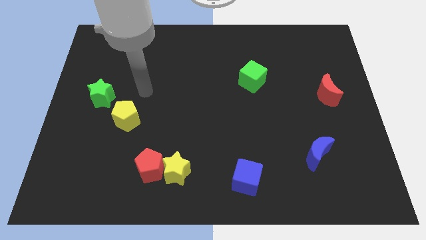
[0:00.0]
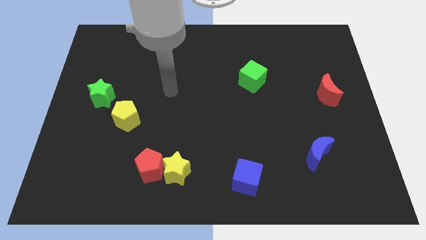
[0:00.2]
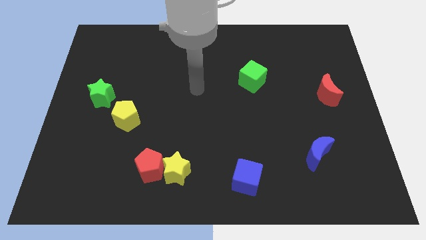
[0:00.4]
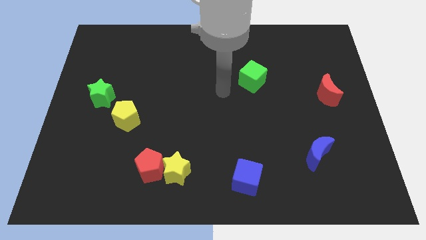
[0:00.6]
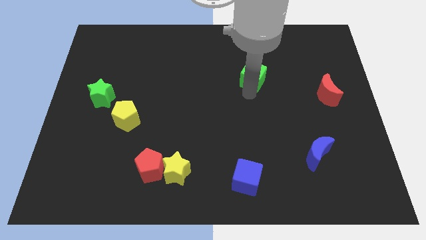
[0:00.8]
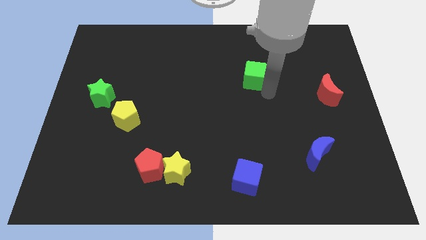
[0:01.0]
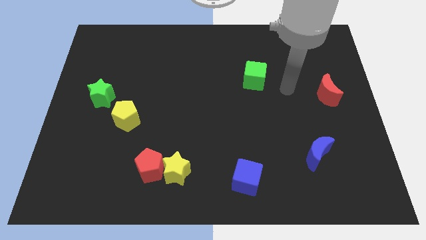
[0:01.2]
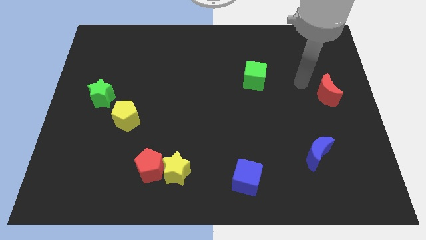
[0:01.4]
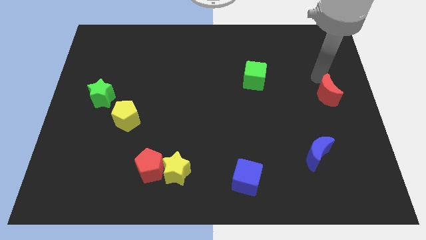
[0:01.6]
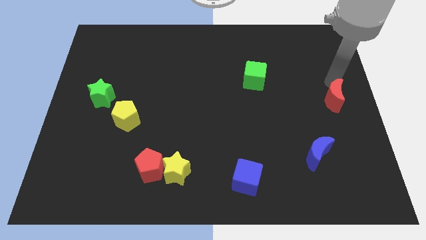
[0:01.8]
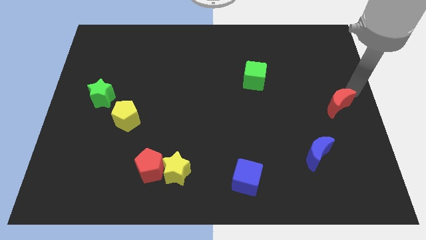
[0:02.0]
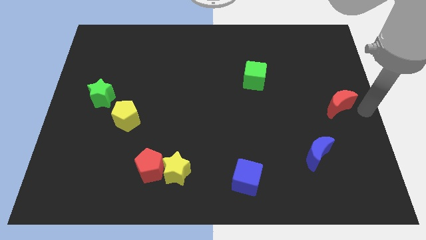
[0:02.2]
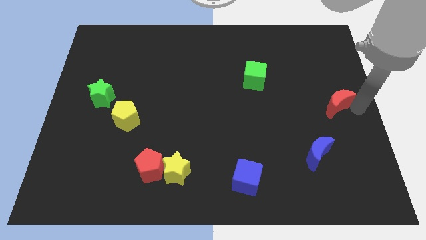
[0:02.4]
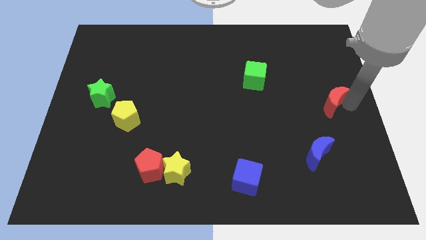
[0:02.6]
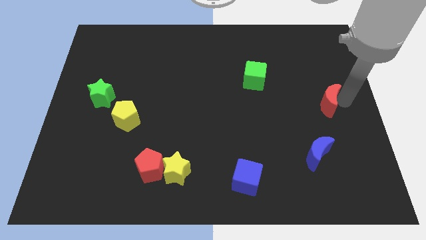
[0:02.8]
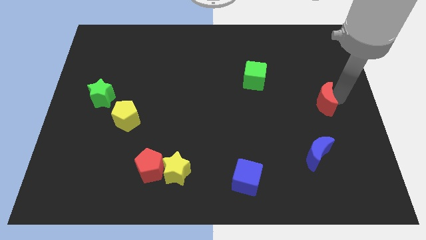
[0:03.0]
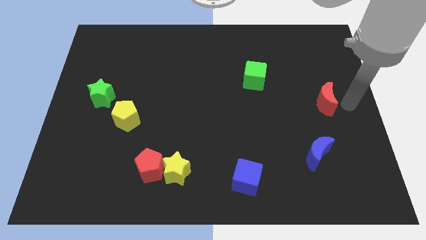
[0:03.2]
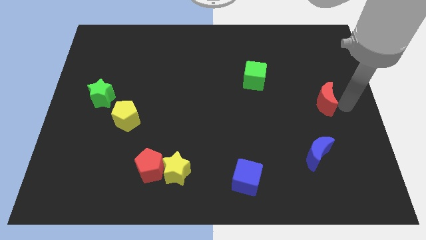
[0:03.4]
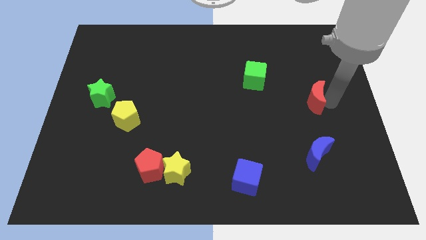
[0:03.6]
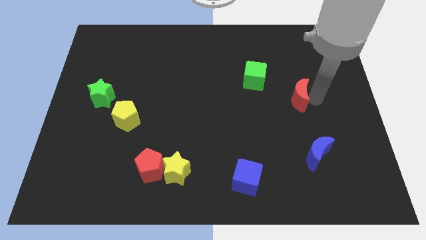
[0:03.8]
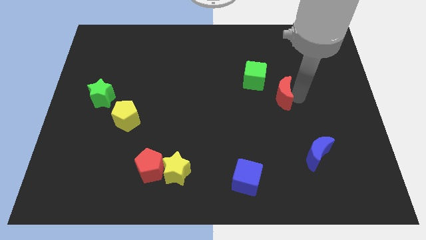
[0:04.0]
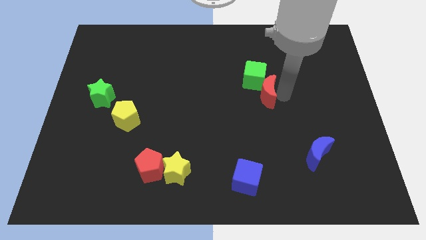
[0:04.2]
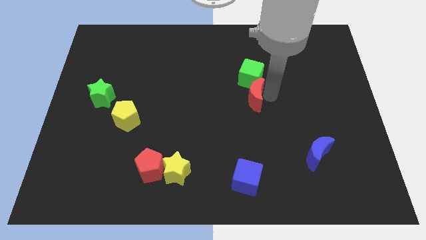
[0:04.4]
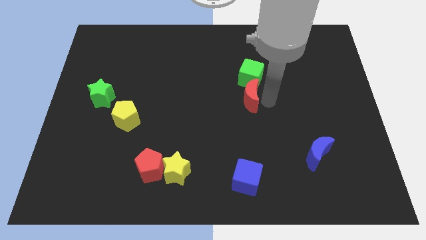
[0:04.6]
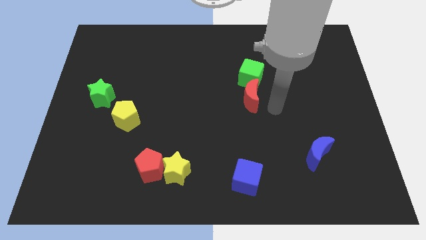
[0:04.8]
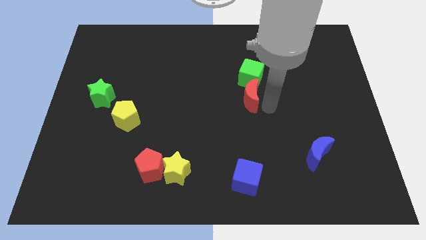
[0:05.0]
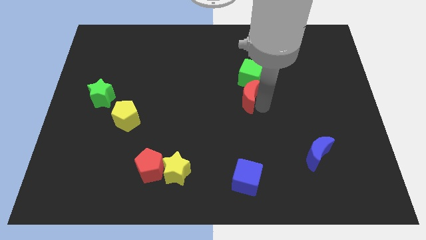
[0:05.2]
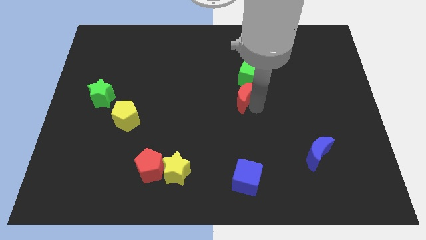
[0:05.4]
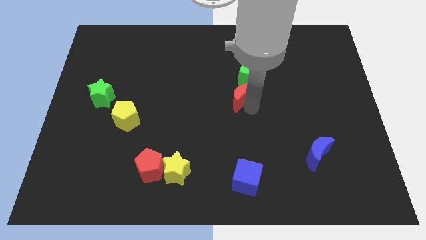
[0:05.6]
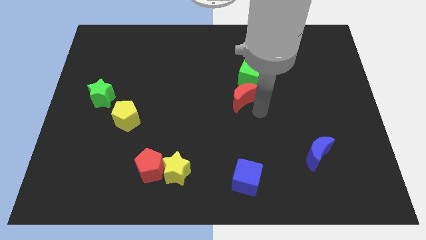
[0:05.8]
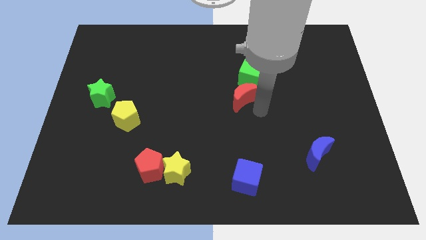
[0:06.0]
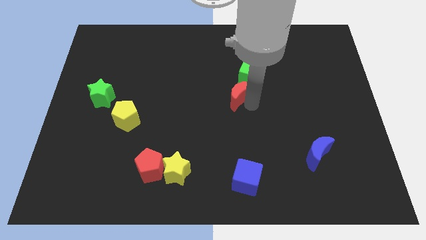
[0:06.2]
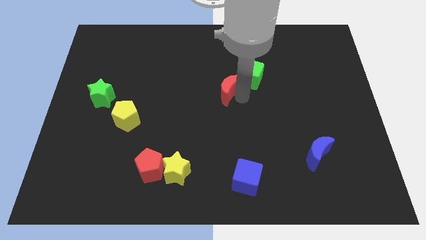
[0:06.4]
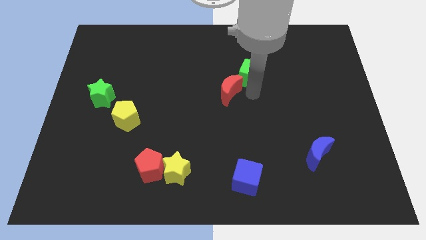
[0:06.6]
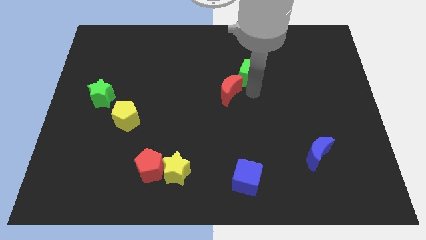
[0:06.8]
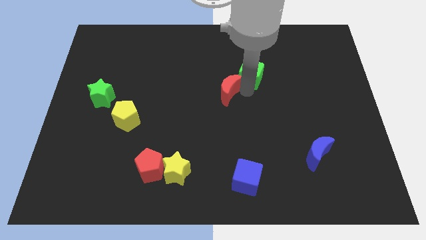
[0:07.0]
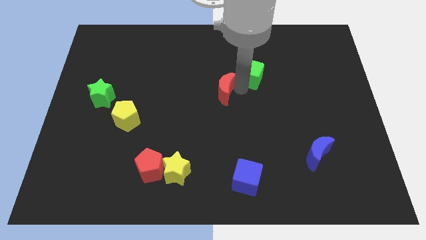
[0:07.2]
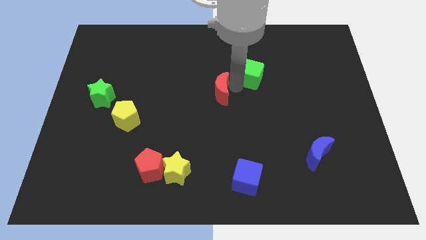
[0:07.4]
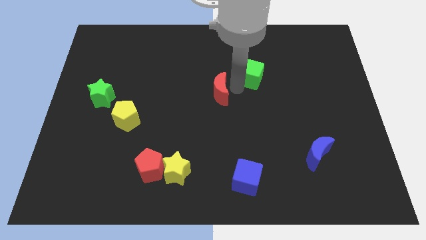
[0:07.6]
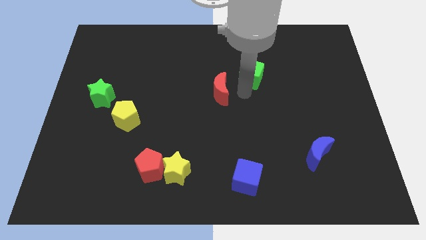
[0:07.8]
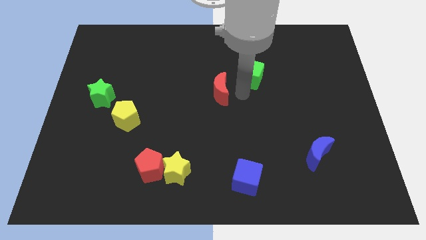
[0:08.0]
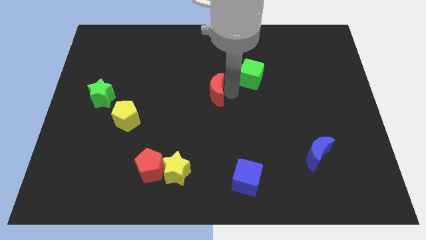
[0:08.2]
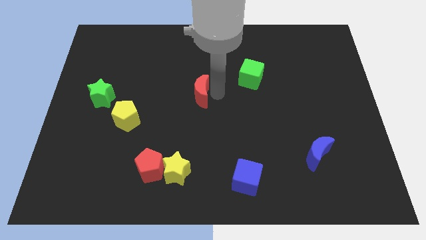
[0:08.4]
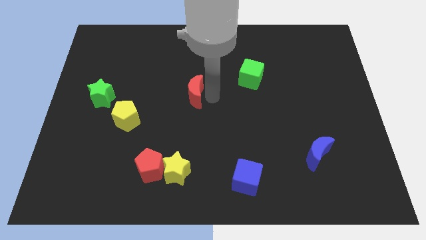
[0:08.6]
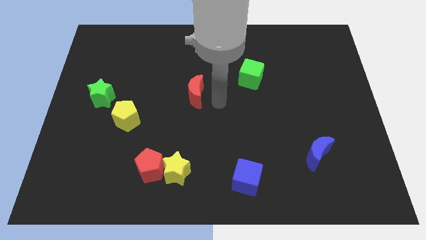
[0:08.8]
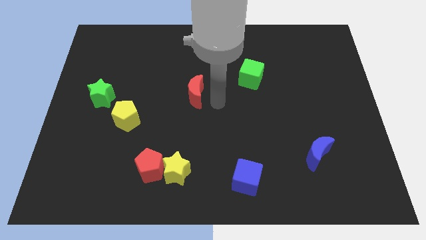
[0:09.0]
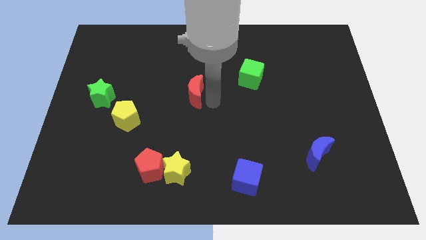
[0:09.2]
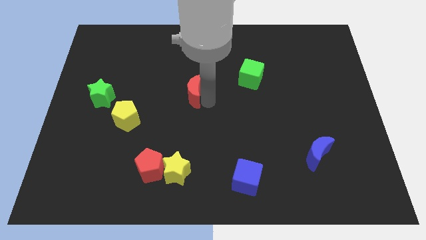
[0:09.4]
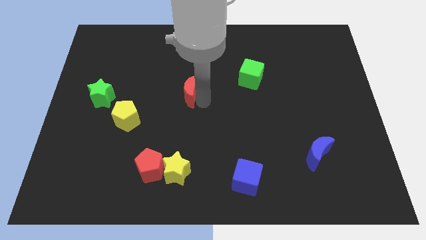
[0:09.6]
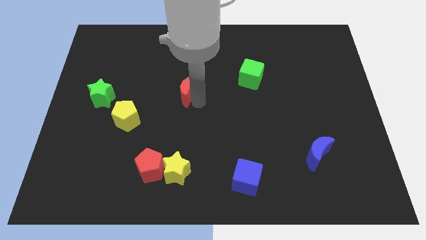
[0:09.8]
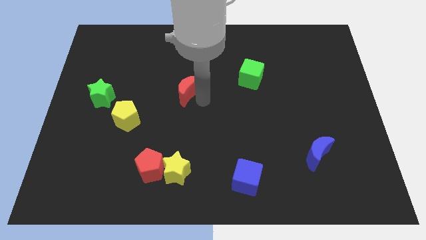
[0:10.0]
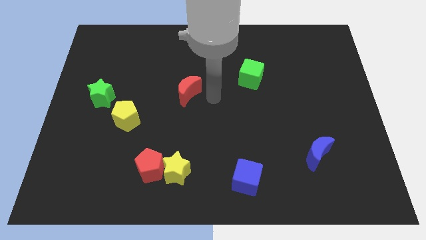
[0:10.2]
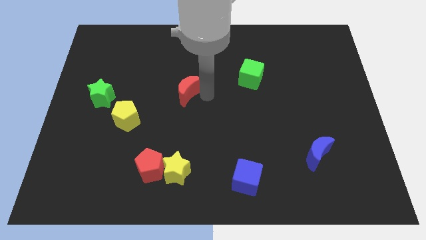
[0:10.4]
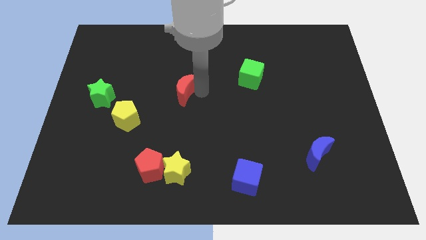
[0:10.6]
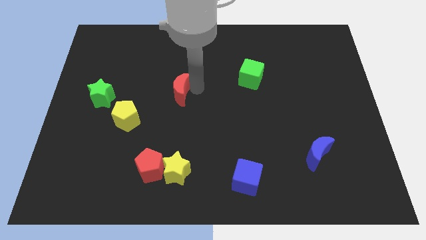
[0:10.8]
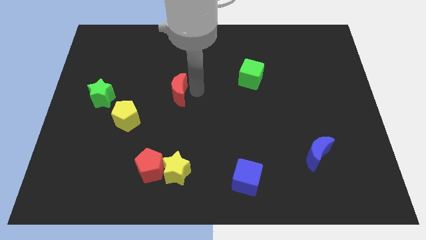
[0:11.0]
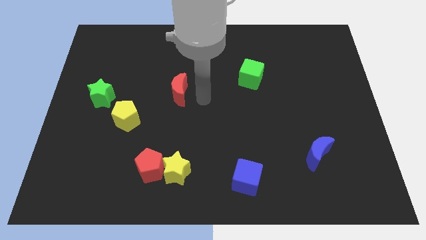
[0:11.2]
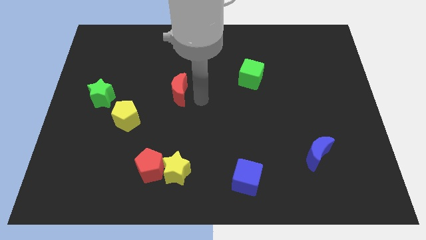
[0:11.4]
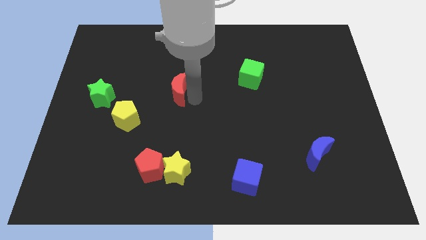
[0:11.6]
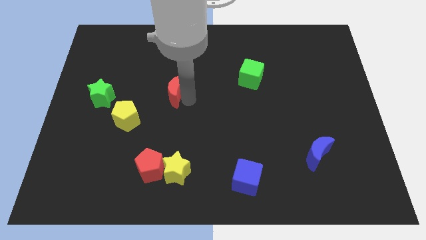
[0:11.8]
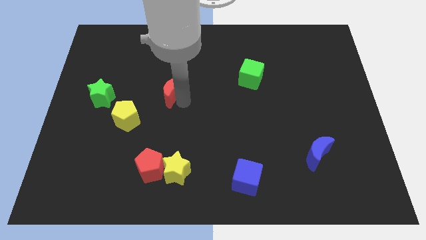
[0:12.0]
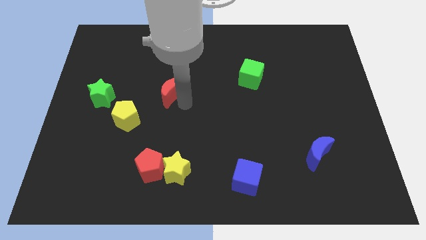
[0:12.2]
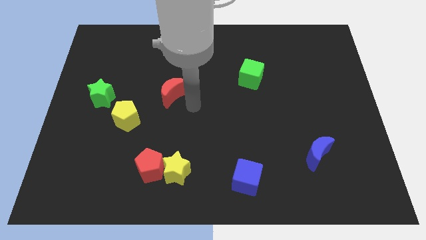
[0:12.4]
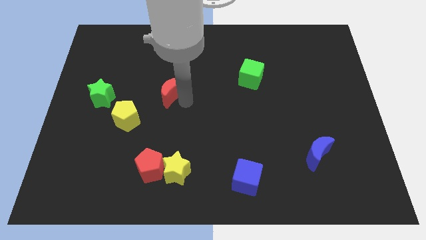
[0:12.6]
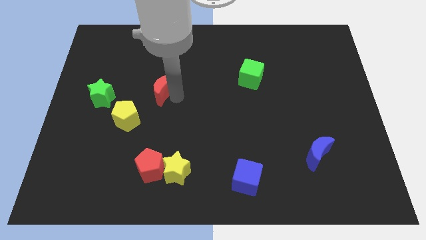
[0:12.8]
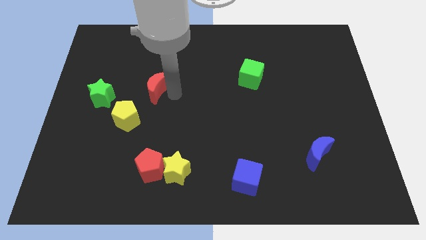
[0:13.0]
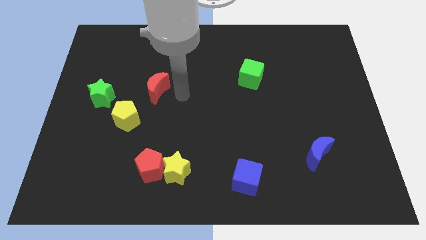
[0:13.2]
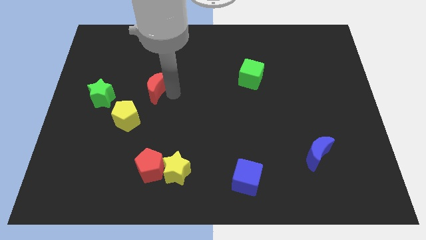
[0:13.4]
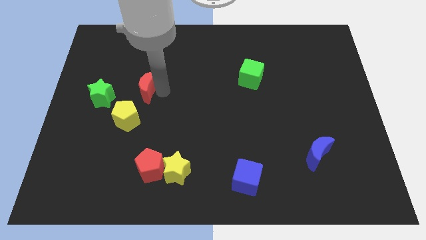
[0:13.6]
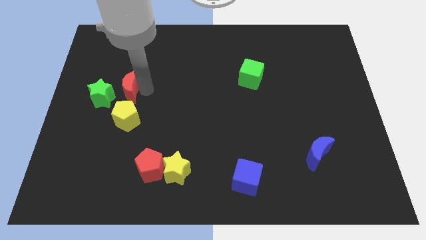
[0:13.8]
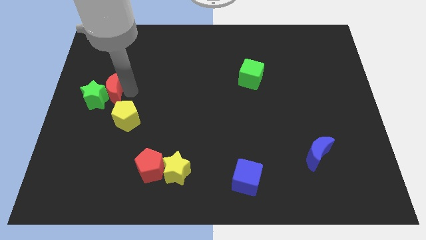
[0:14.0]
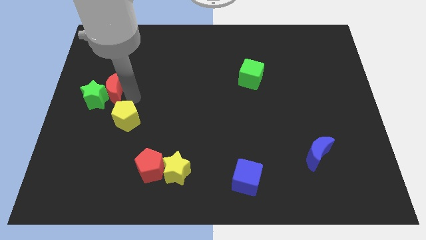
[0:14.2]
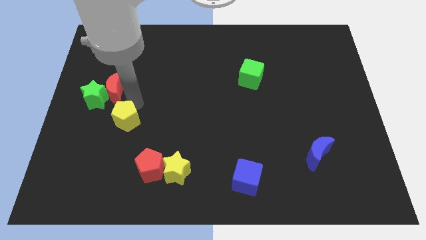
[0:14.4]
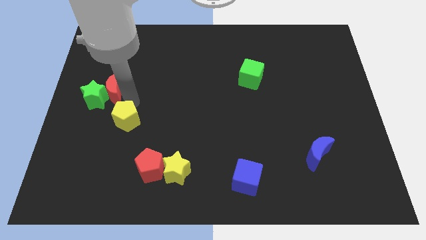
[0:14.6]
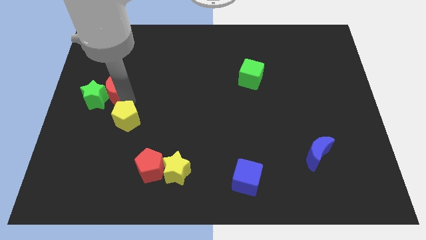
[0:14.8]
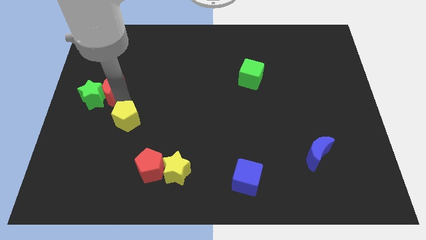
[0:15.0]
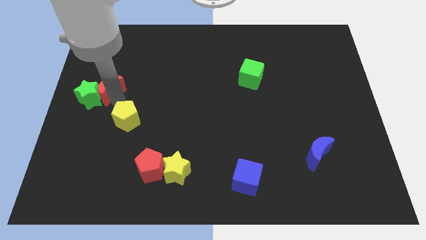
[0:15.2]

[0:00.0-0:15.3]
move the red moon to the left side
